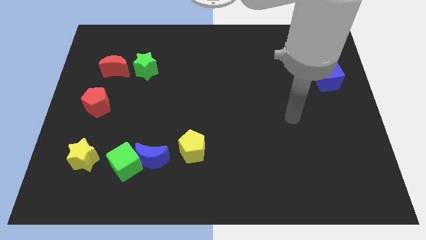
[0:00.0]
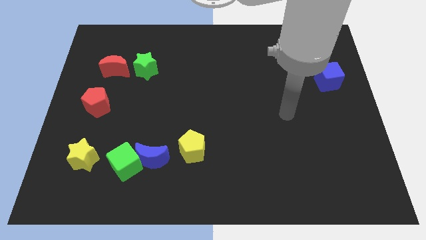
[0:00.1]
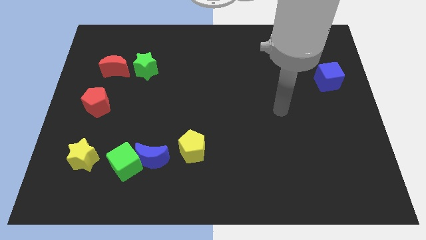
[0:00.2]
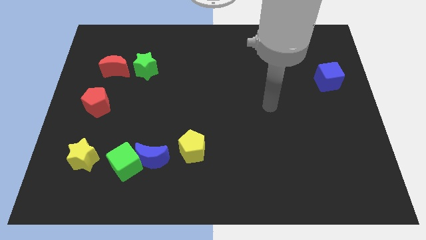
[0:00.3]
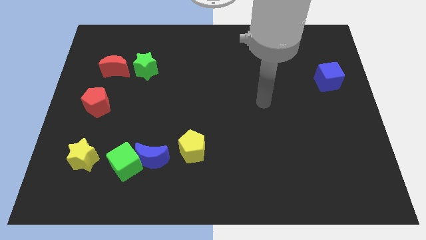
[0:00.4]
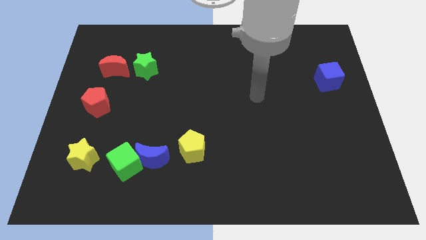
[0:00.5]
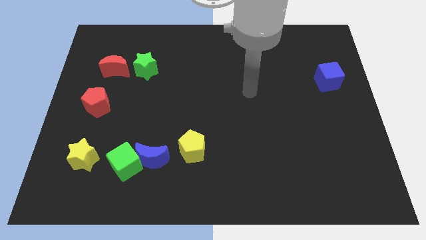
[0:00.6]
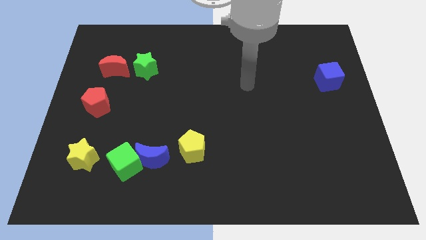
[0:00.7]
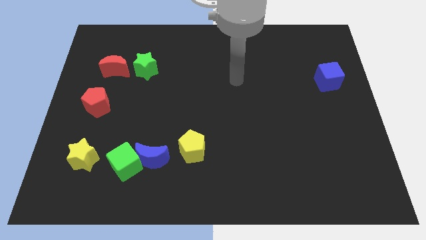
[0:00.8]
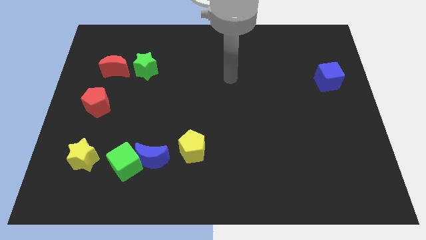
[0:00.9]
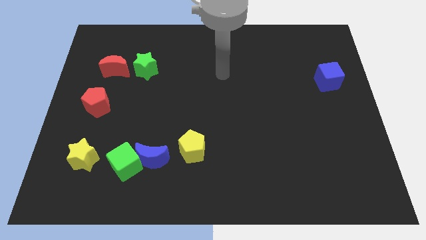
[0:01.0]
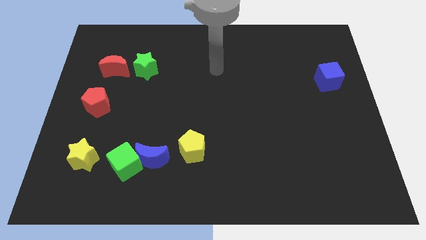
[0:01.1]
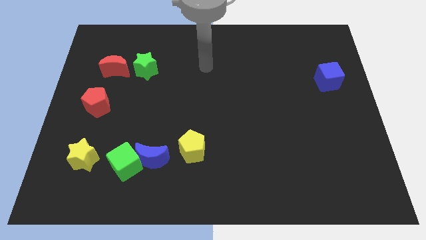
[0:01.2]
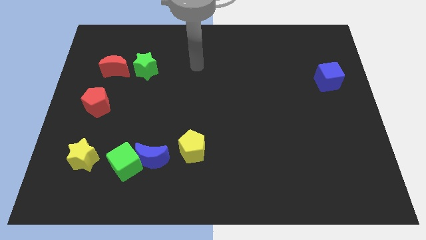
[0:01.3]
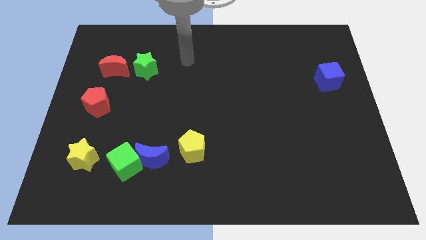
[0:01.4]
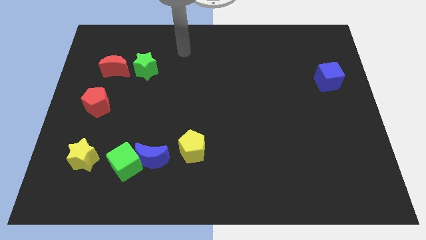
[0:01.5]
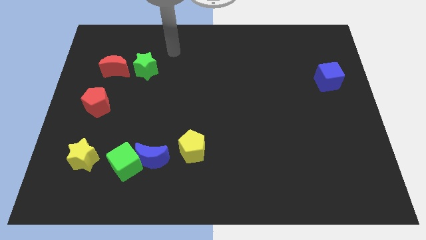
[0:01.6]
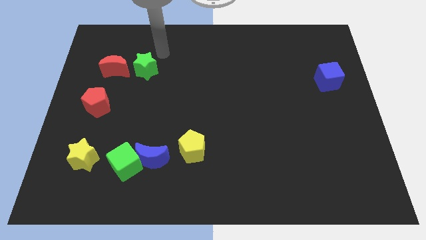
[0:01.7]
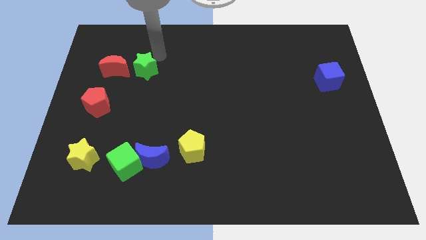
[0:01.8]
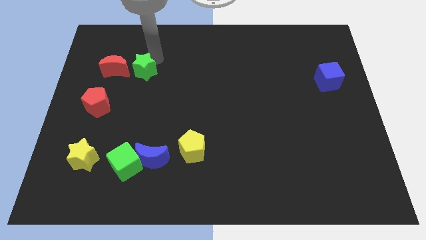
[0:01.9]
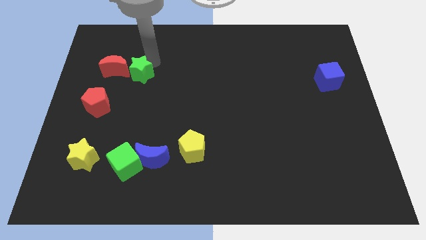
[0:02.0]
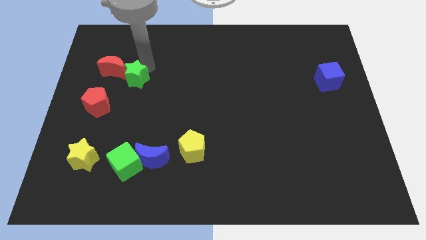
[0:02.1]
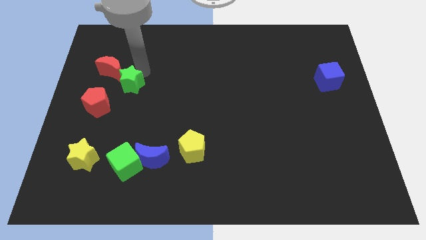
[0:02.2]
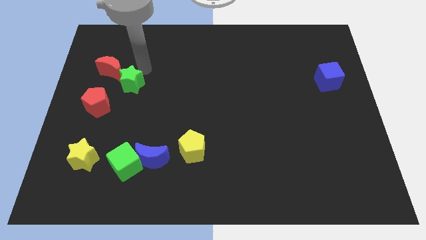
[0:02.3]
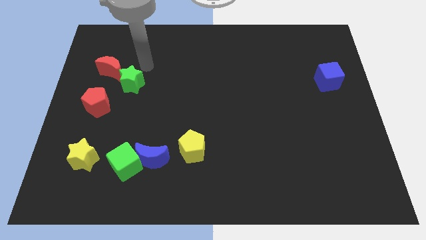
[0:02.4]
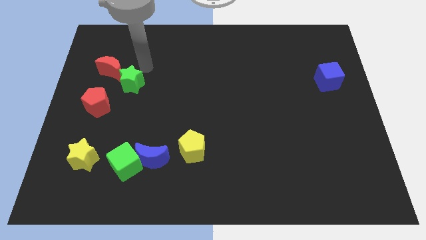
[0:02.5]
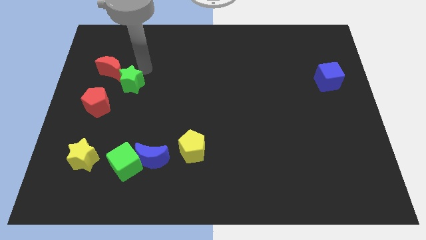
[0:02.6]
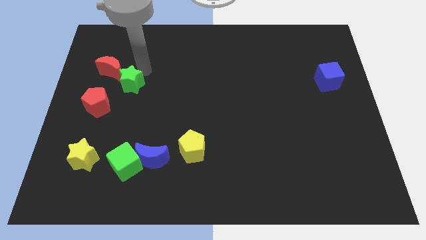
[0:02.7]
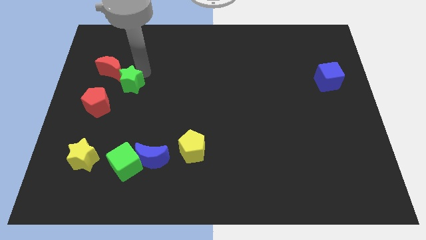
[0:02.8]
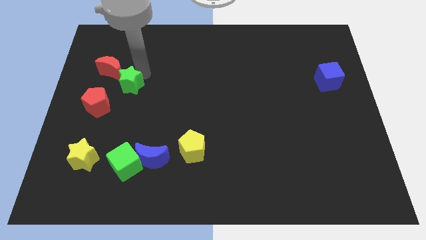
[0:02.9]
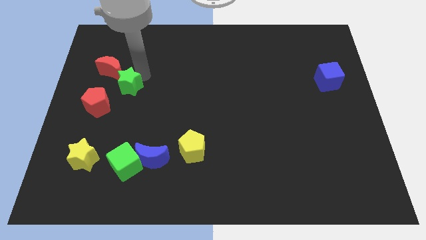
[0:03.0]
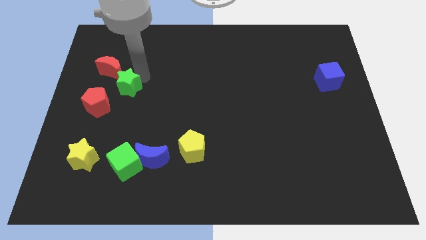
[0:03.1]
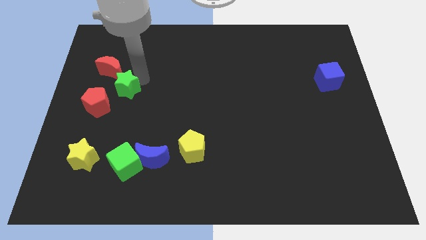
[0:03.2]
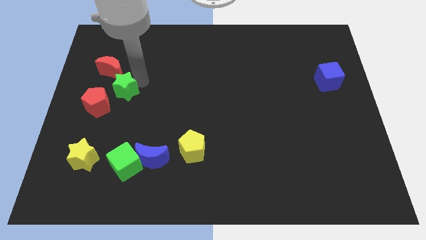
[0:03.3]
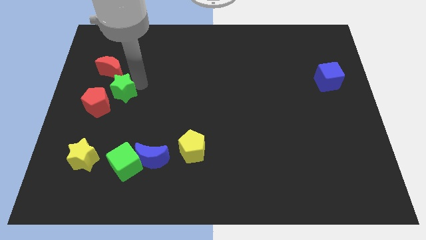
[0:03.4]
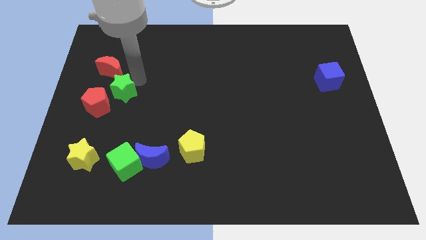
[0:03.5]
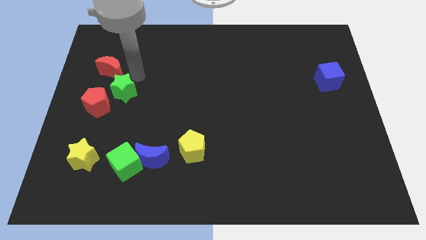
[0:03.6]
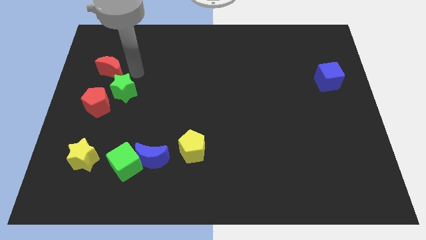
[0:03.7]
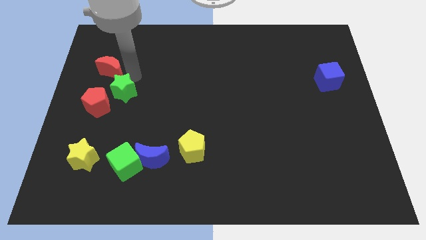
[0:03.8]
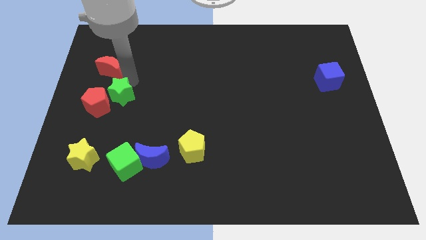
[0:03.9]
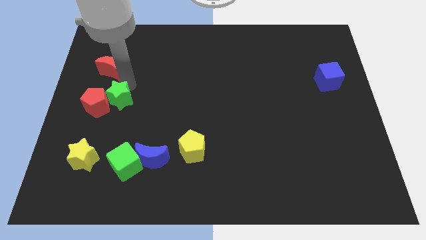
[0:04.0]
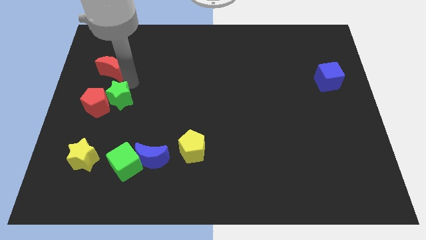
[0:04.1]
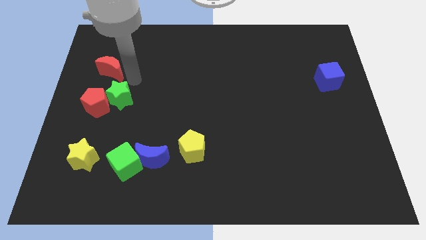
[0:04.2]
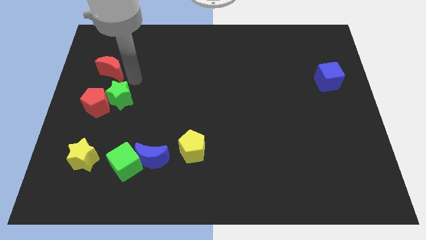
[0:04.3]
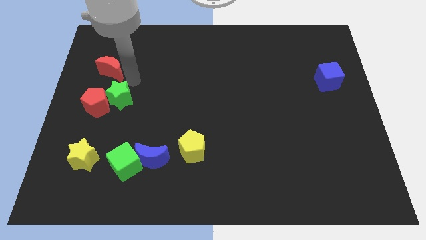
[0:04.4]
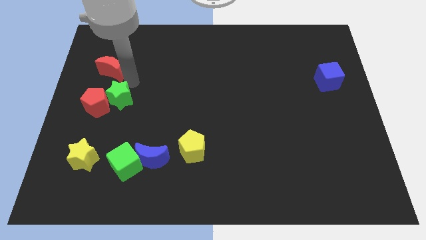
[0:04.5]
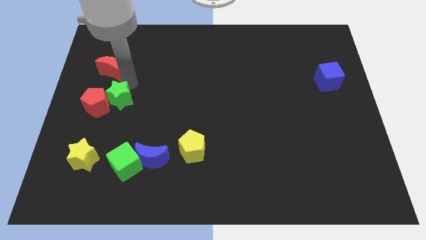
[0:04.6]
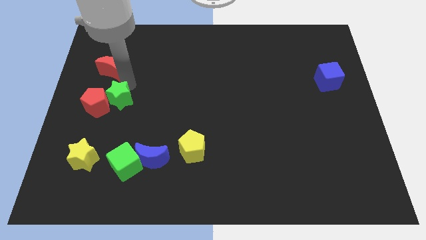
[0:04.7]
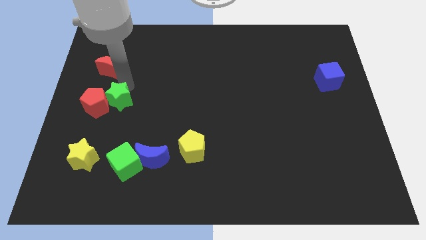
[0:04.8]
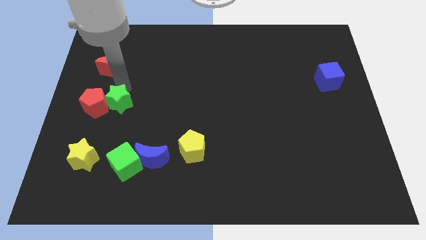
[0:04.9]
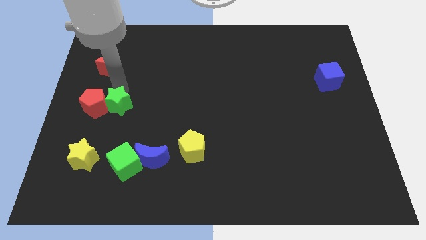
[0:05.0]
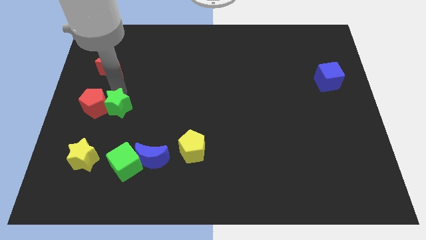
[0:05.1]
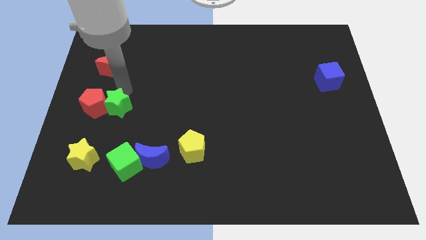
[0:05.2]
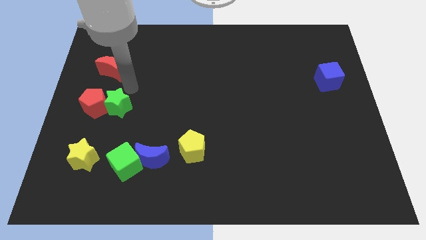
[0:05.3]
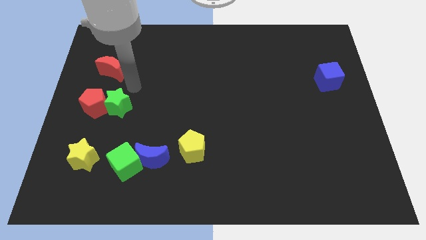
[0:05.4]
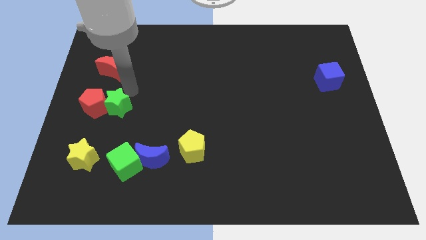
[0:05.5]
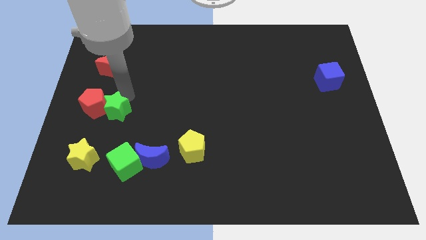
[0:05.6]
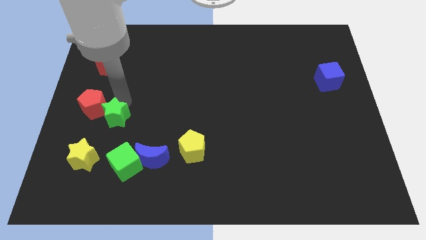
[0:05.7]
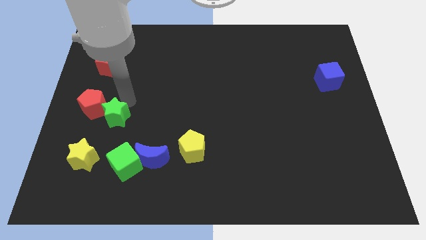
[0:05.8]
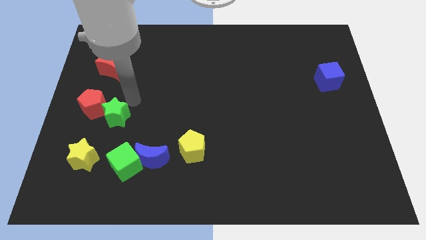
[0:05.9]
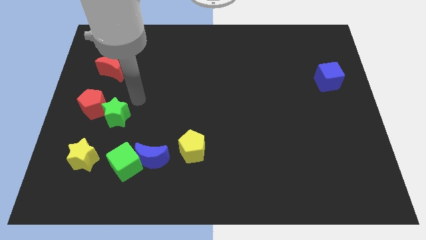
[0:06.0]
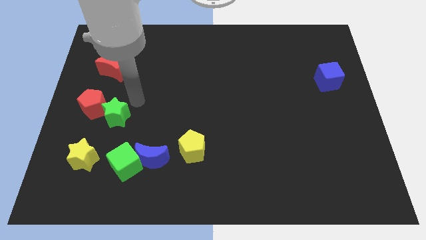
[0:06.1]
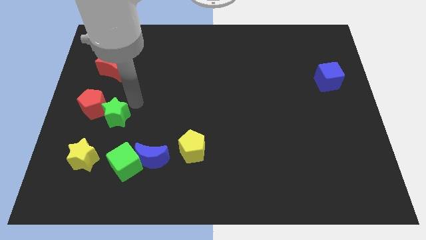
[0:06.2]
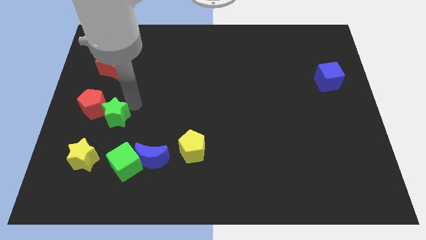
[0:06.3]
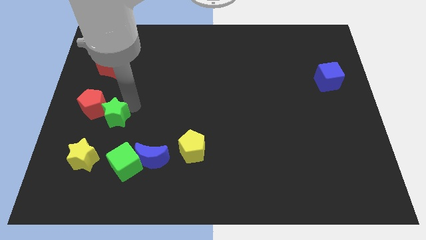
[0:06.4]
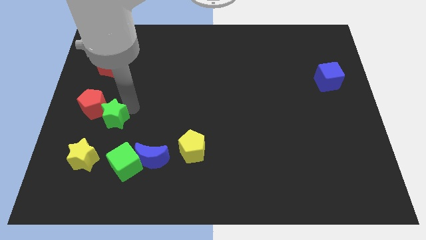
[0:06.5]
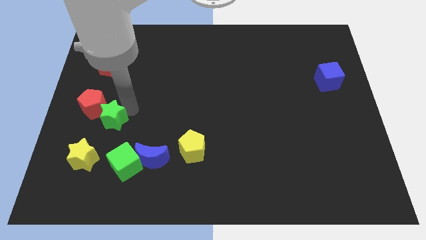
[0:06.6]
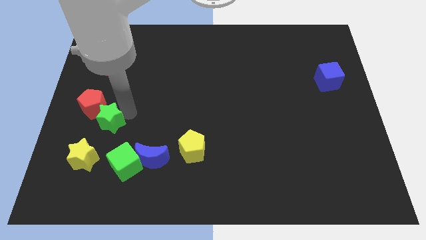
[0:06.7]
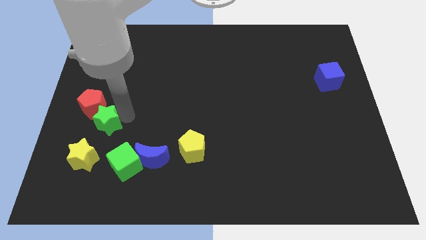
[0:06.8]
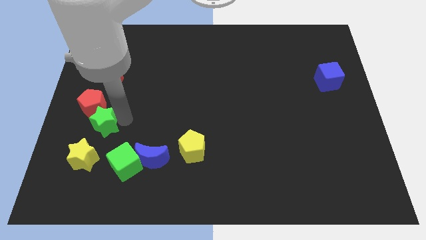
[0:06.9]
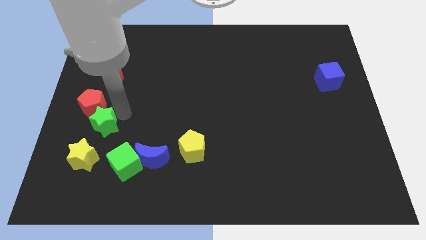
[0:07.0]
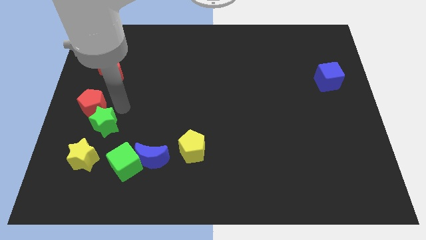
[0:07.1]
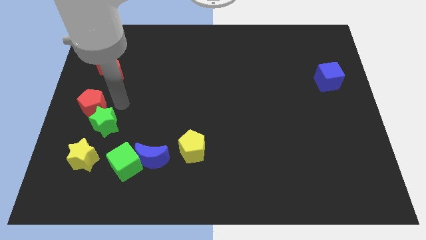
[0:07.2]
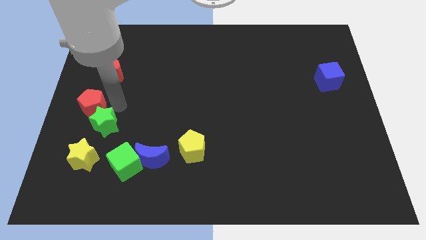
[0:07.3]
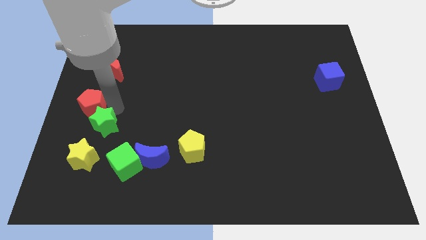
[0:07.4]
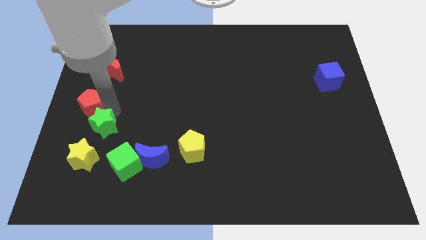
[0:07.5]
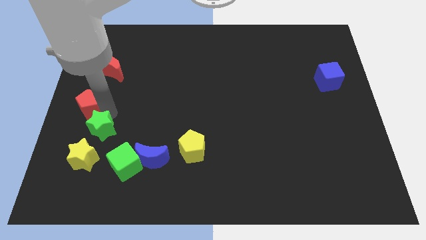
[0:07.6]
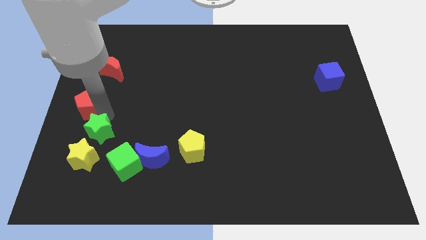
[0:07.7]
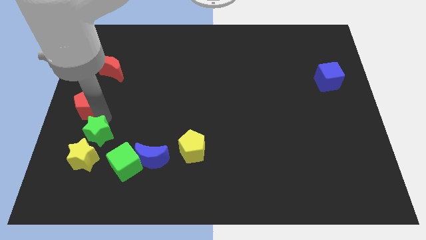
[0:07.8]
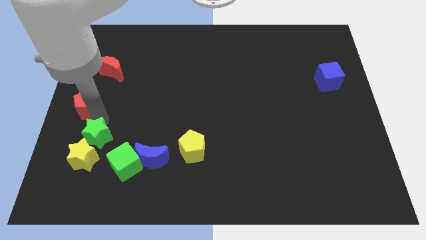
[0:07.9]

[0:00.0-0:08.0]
put the green star next to the yellow star
